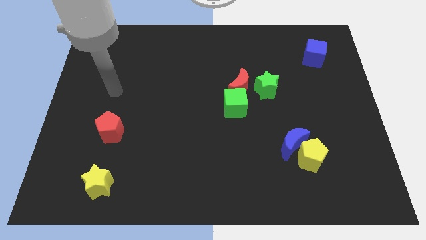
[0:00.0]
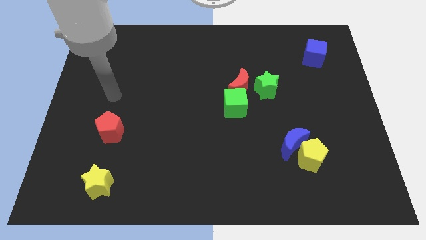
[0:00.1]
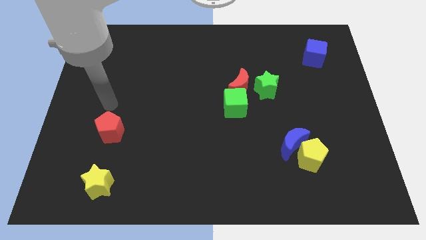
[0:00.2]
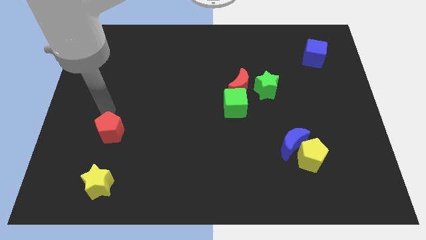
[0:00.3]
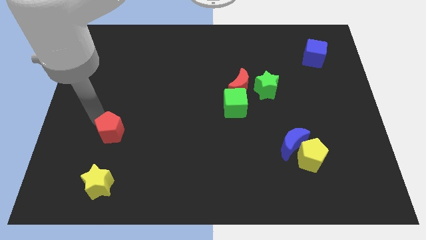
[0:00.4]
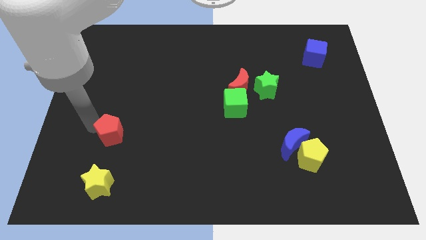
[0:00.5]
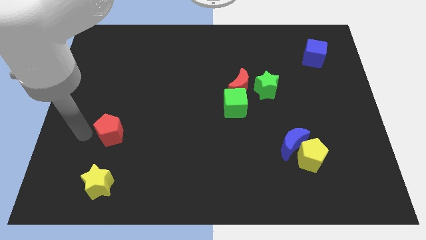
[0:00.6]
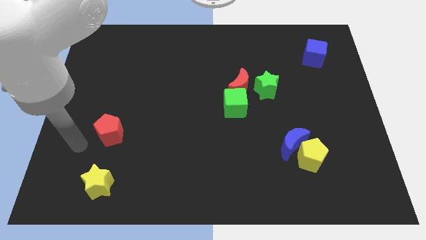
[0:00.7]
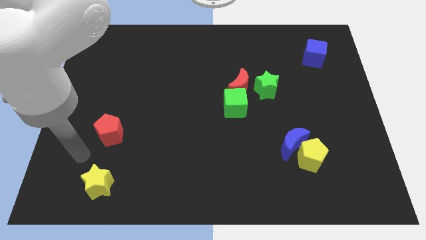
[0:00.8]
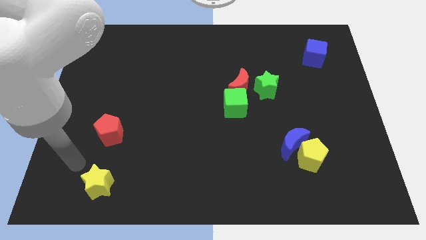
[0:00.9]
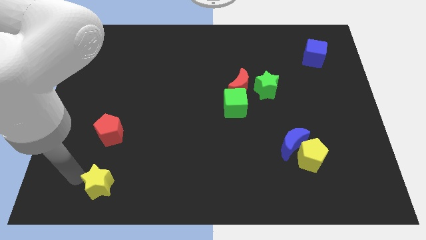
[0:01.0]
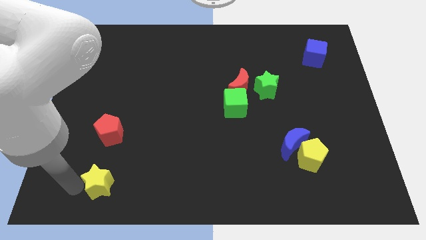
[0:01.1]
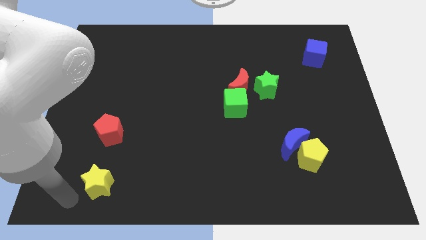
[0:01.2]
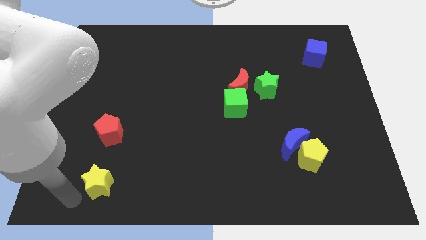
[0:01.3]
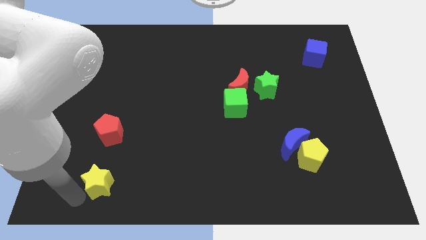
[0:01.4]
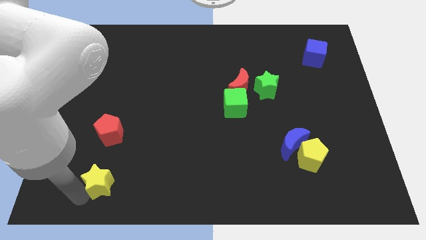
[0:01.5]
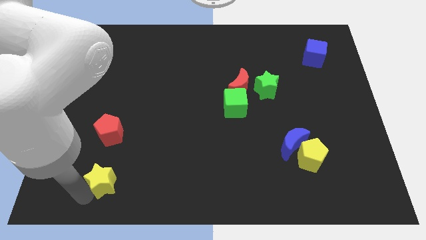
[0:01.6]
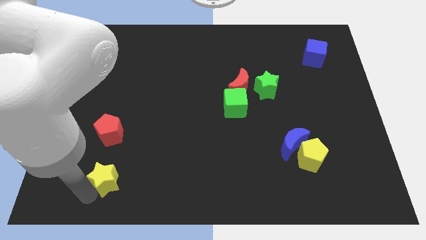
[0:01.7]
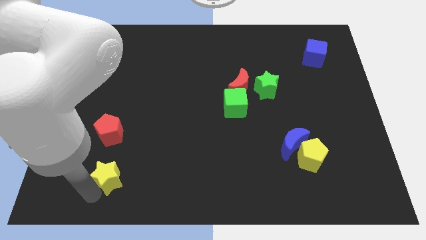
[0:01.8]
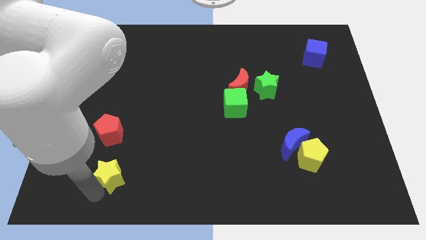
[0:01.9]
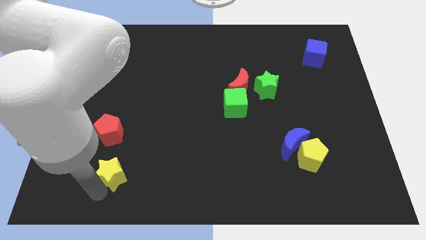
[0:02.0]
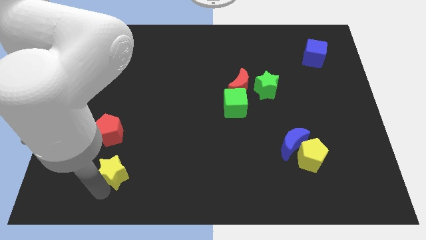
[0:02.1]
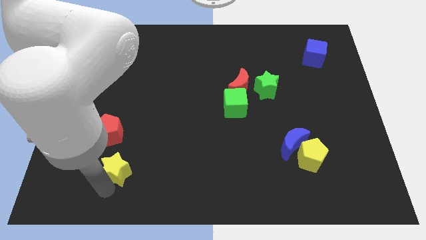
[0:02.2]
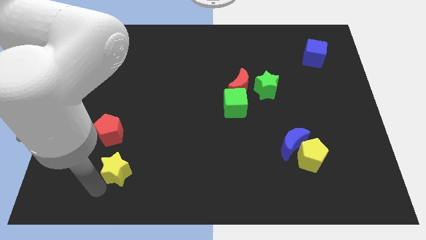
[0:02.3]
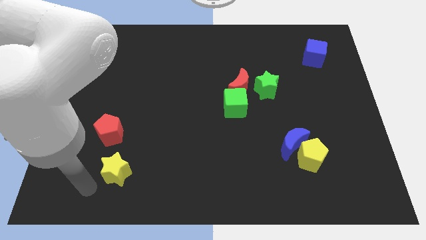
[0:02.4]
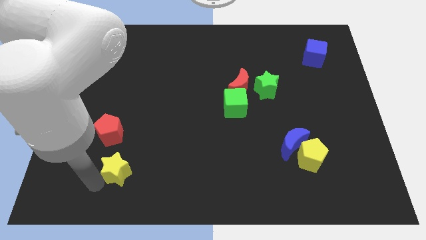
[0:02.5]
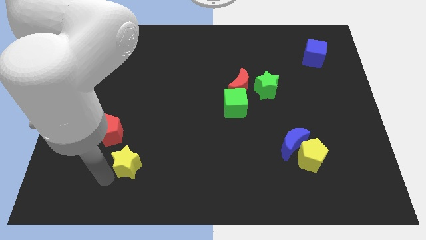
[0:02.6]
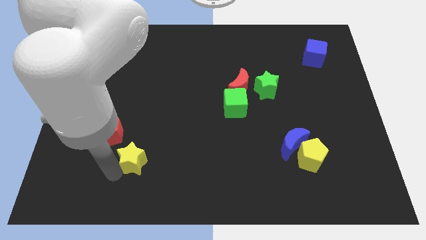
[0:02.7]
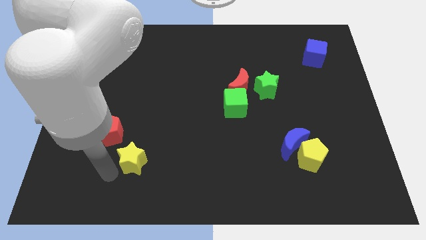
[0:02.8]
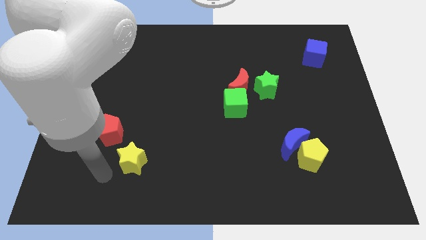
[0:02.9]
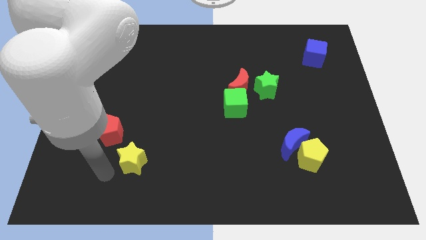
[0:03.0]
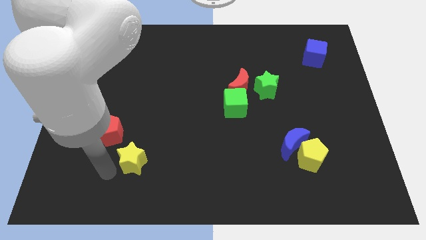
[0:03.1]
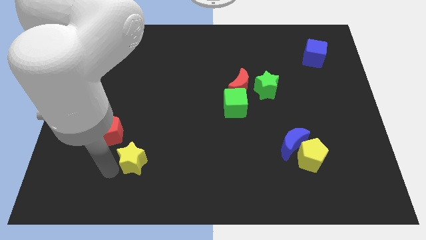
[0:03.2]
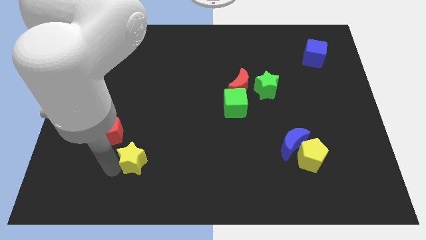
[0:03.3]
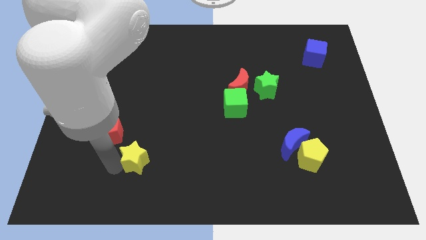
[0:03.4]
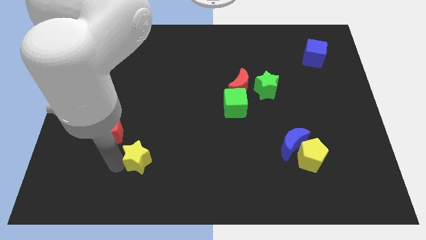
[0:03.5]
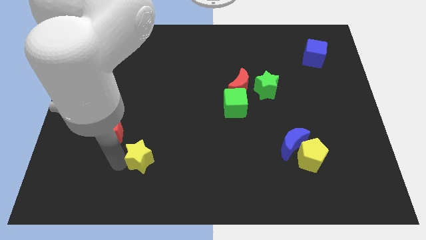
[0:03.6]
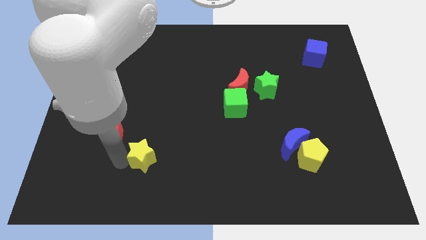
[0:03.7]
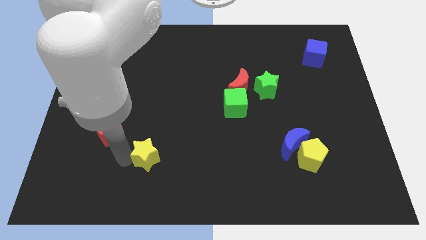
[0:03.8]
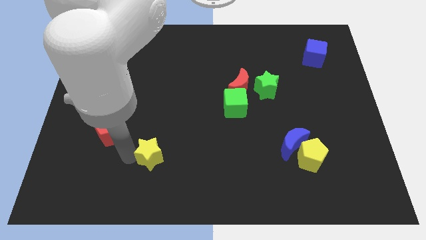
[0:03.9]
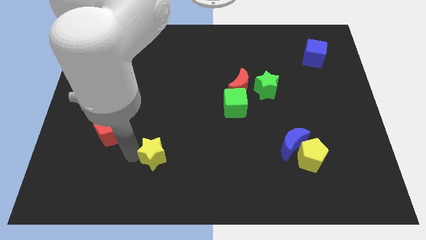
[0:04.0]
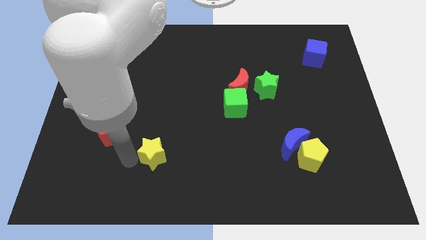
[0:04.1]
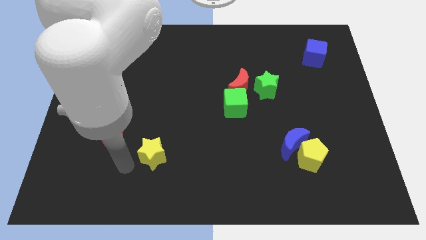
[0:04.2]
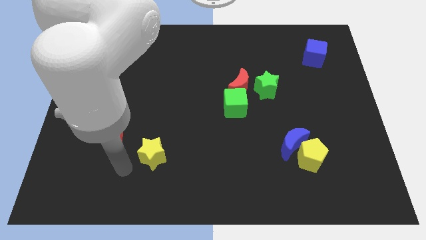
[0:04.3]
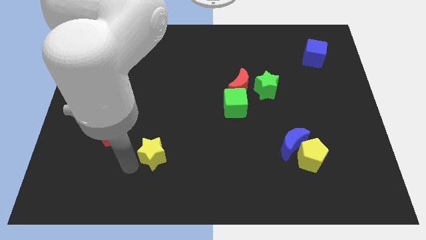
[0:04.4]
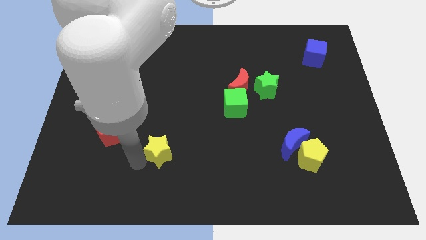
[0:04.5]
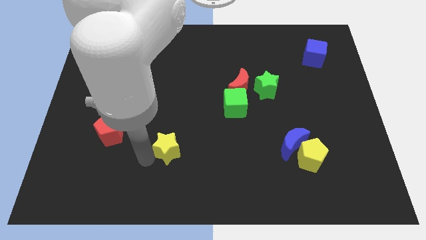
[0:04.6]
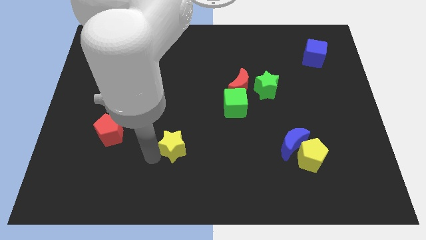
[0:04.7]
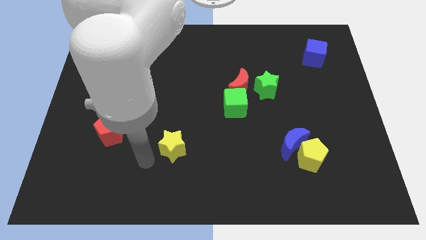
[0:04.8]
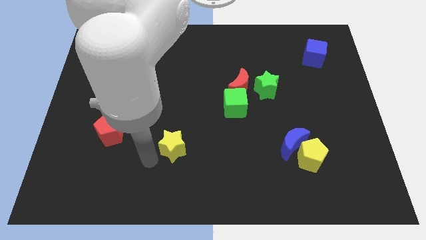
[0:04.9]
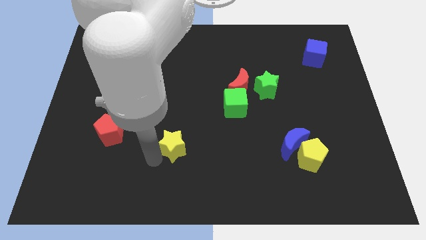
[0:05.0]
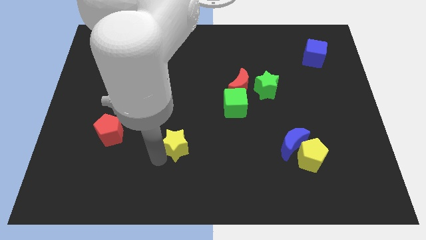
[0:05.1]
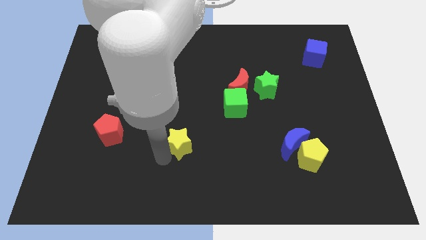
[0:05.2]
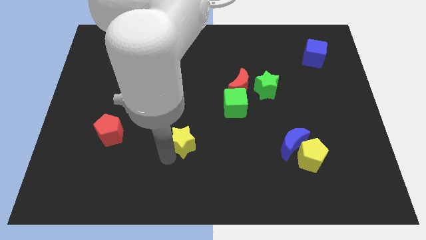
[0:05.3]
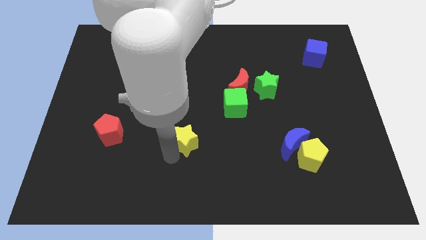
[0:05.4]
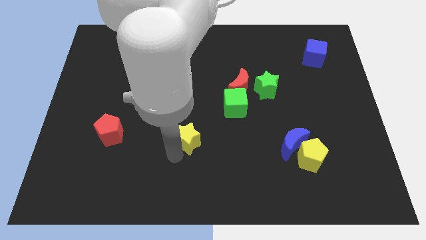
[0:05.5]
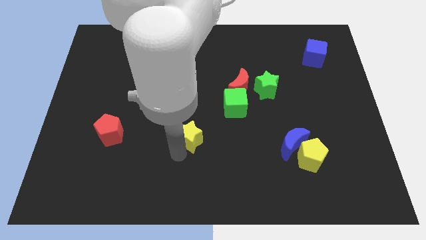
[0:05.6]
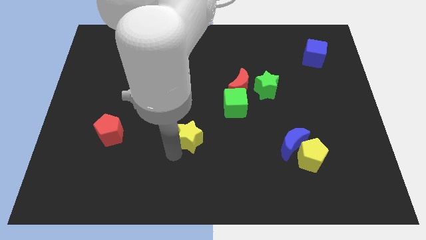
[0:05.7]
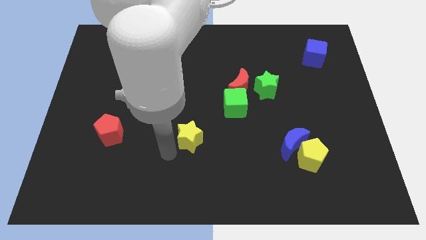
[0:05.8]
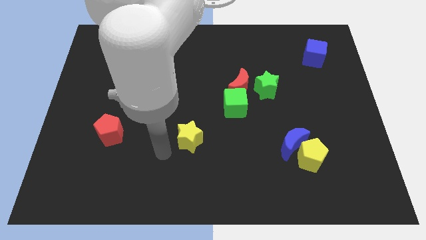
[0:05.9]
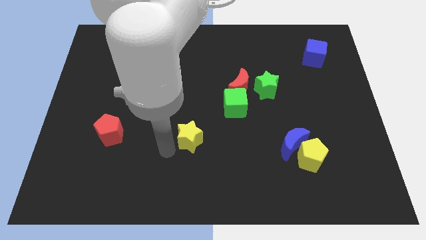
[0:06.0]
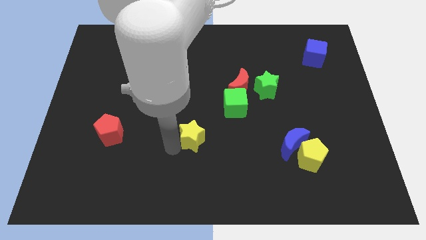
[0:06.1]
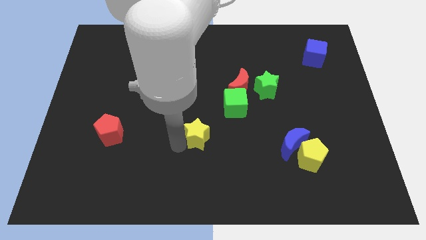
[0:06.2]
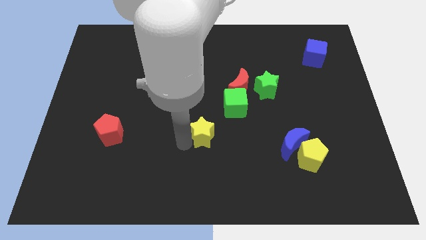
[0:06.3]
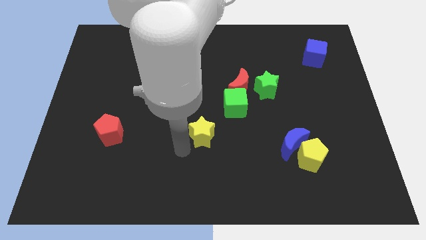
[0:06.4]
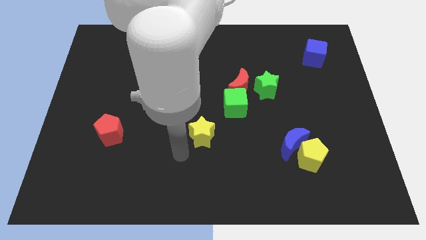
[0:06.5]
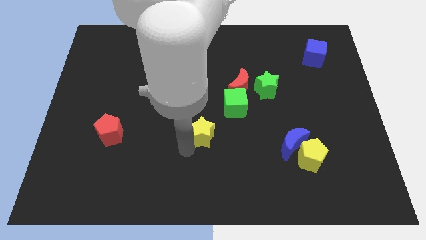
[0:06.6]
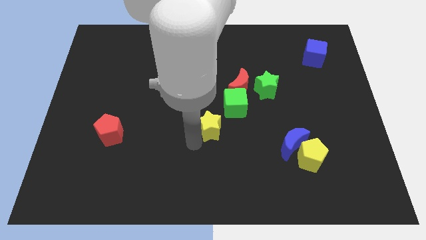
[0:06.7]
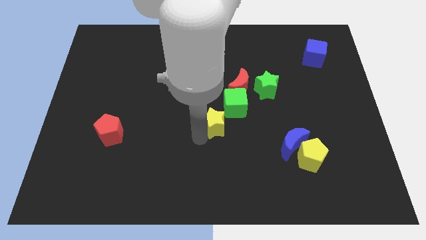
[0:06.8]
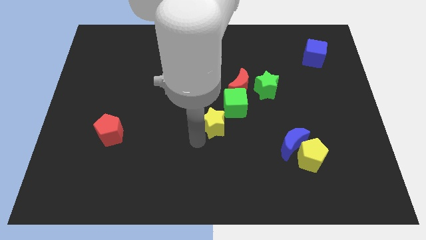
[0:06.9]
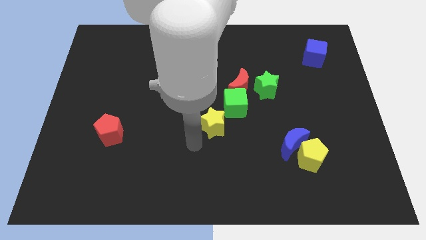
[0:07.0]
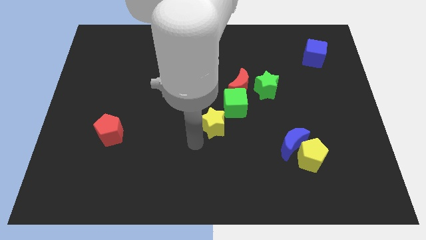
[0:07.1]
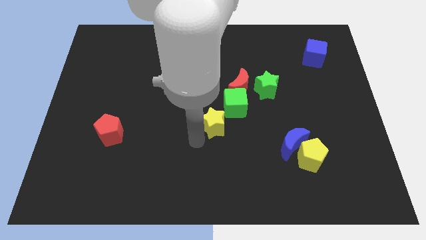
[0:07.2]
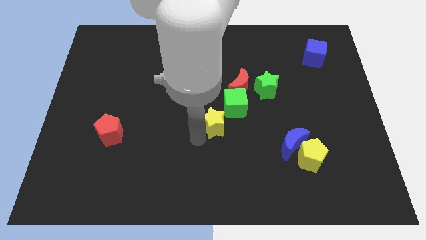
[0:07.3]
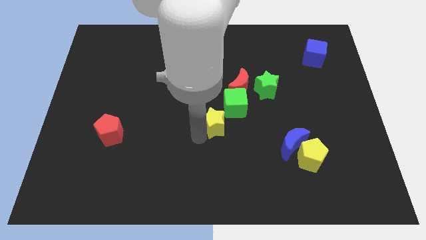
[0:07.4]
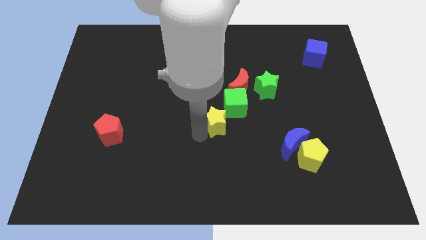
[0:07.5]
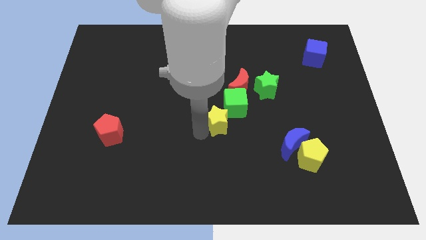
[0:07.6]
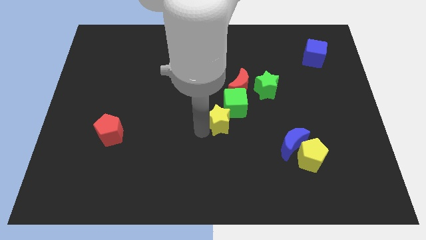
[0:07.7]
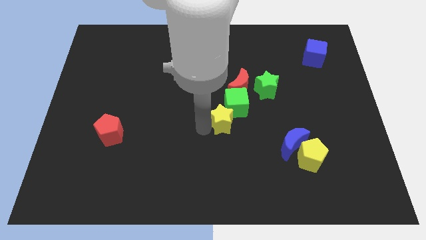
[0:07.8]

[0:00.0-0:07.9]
move the yellow star to the green cube
